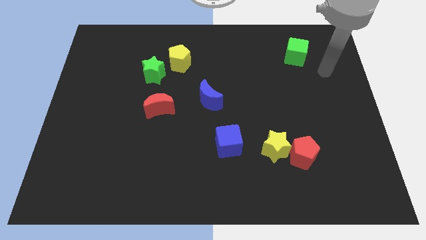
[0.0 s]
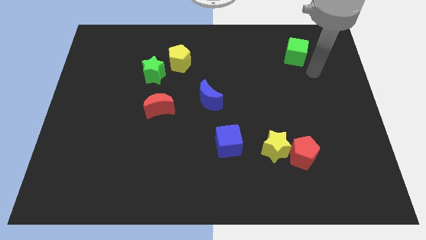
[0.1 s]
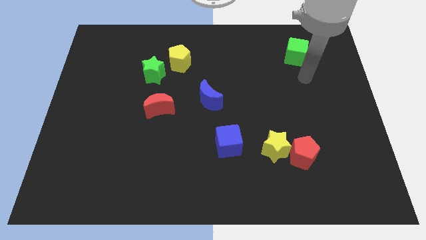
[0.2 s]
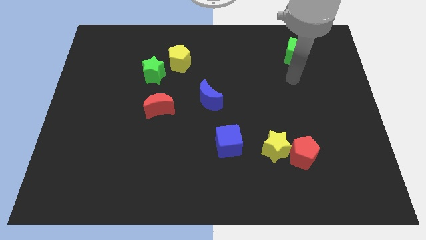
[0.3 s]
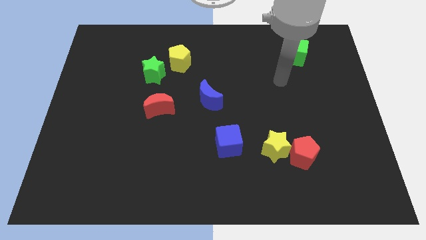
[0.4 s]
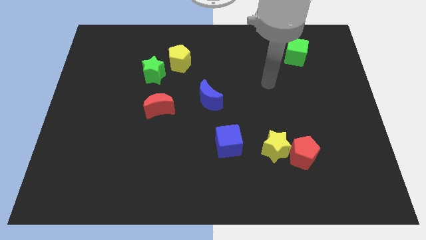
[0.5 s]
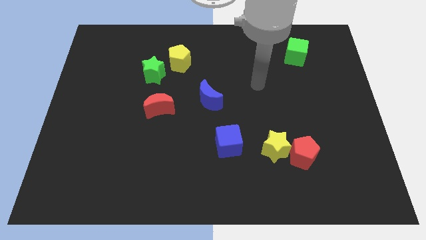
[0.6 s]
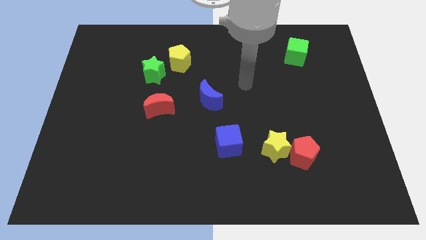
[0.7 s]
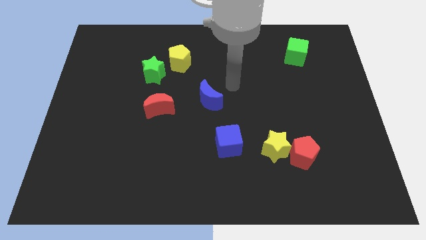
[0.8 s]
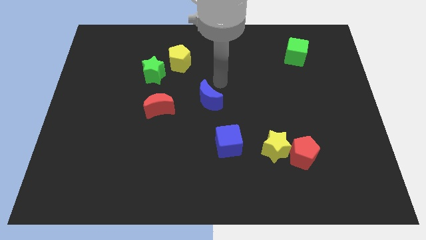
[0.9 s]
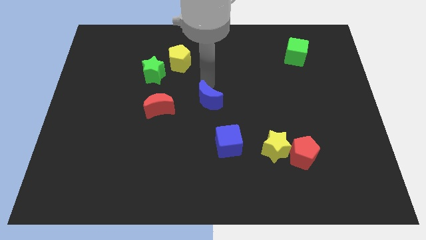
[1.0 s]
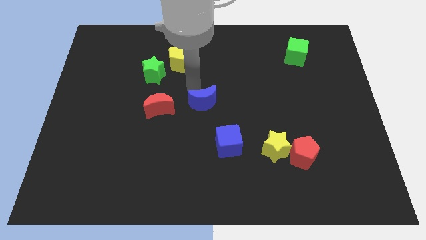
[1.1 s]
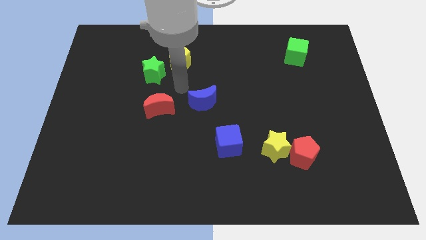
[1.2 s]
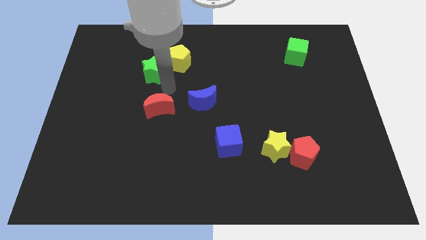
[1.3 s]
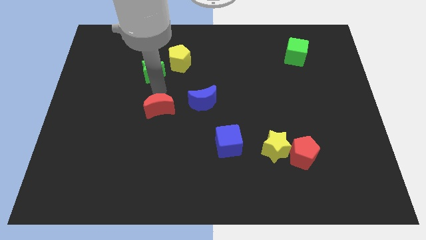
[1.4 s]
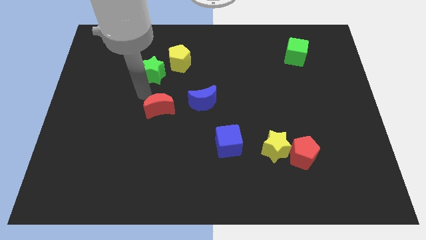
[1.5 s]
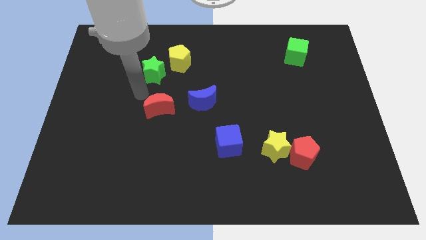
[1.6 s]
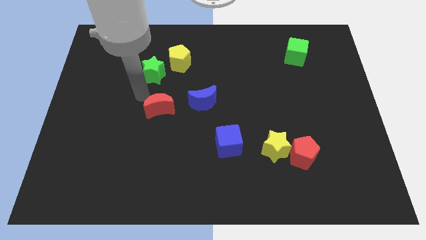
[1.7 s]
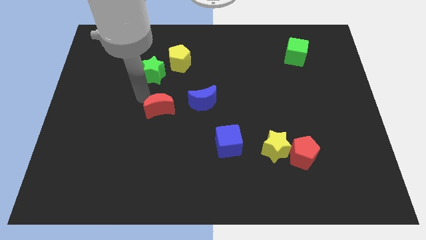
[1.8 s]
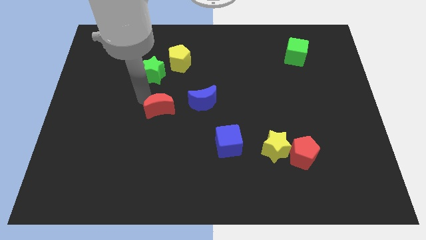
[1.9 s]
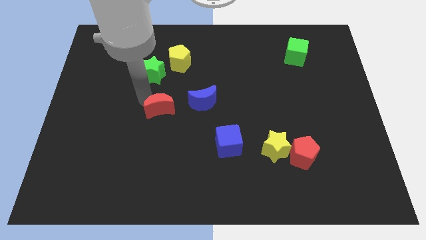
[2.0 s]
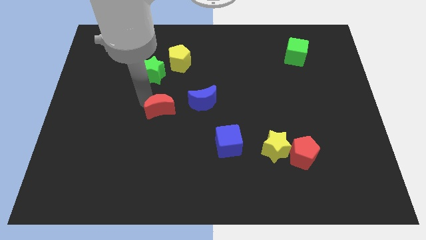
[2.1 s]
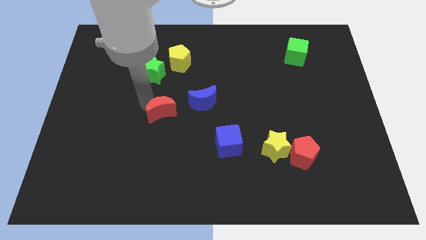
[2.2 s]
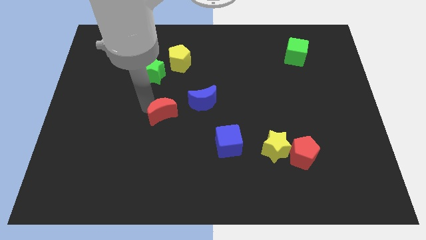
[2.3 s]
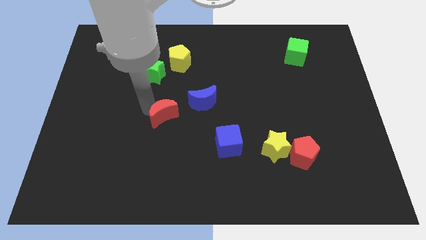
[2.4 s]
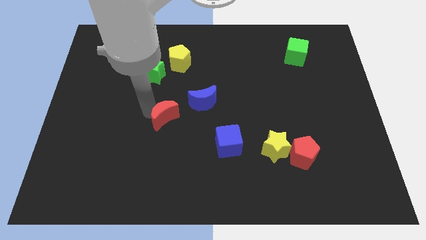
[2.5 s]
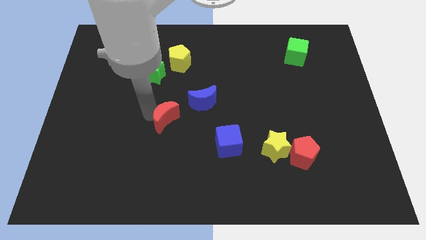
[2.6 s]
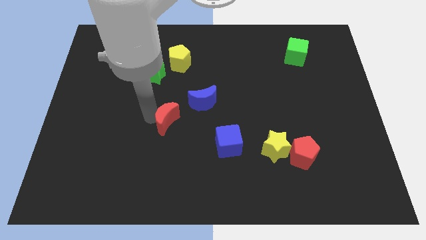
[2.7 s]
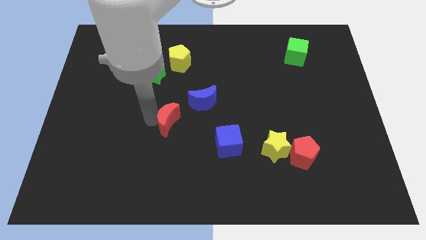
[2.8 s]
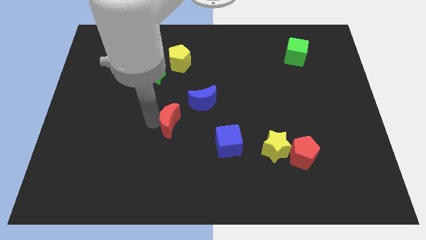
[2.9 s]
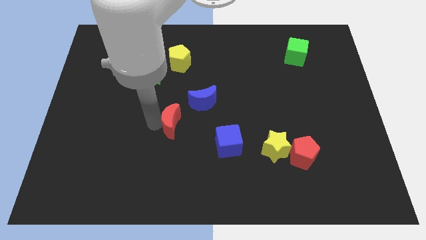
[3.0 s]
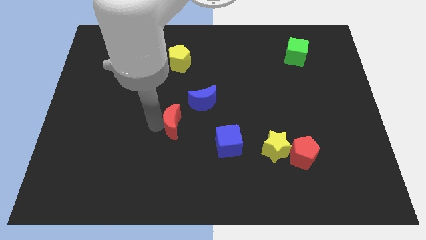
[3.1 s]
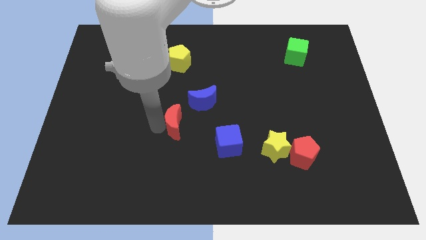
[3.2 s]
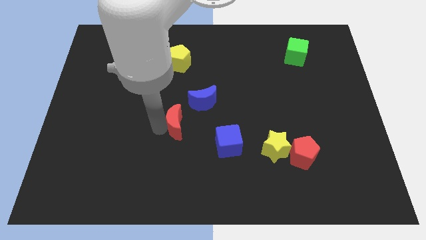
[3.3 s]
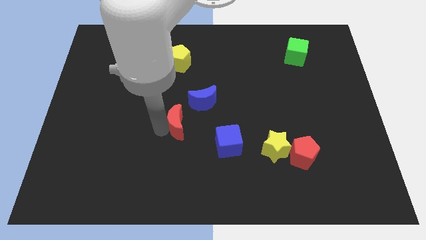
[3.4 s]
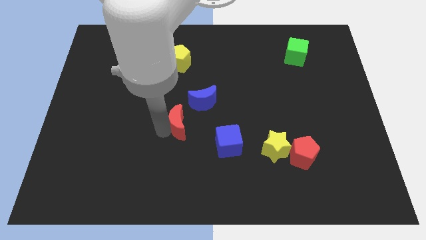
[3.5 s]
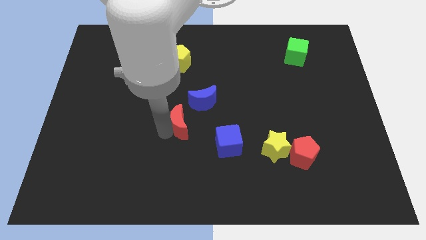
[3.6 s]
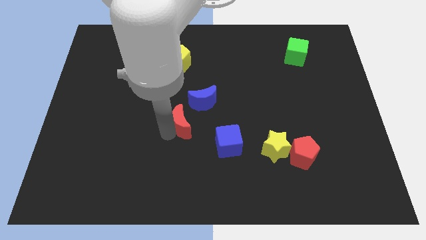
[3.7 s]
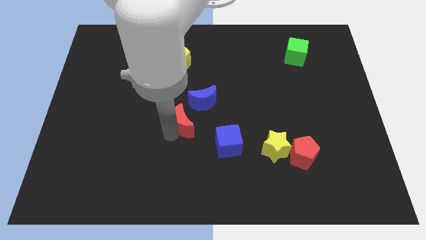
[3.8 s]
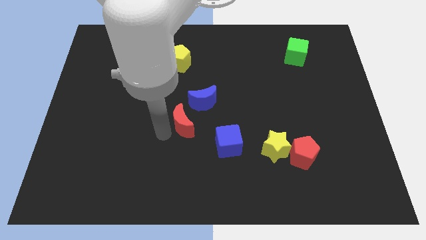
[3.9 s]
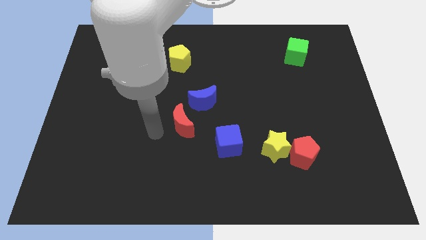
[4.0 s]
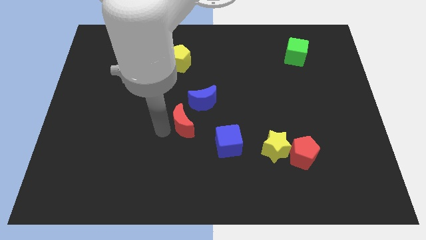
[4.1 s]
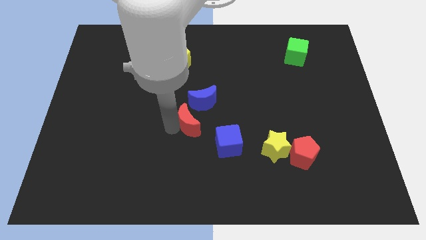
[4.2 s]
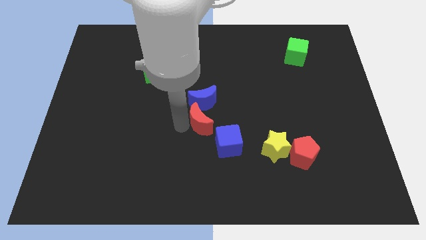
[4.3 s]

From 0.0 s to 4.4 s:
slightly push the red moon right

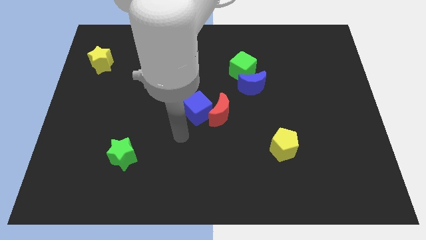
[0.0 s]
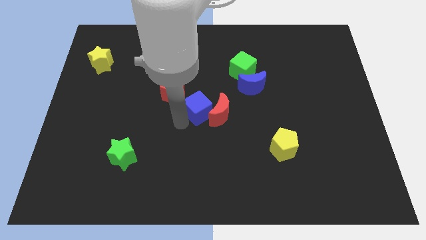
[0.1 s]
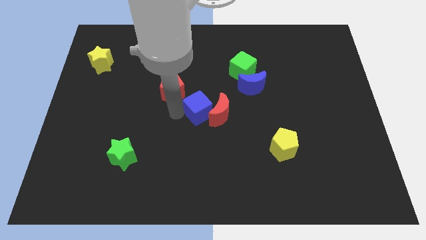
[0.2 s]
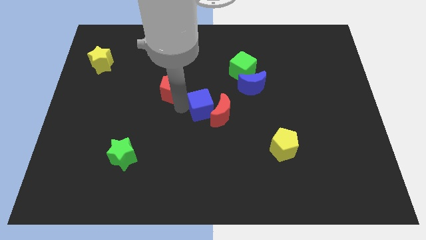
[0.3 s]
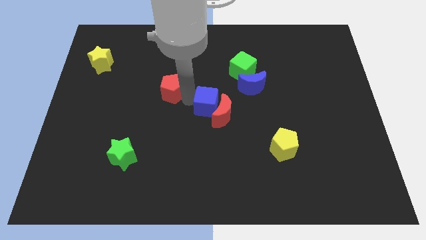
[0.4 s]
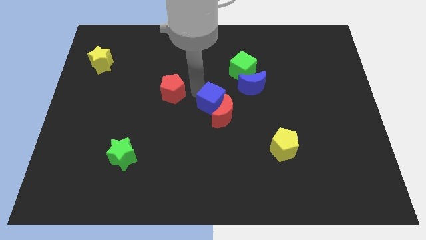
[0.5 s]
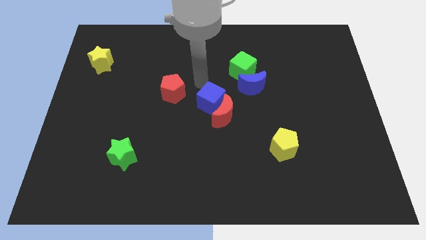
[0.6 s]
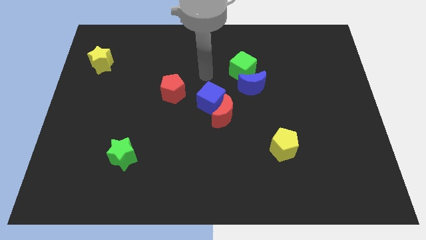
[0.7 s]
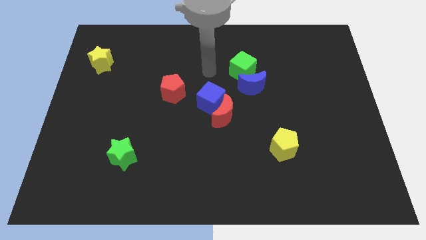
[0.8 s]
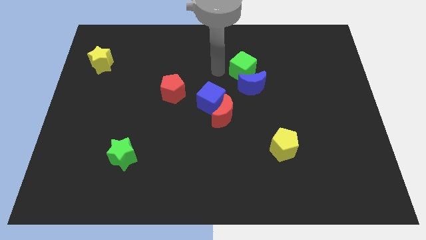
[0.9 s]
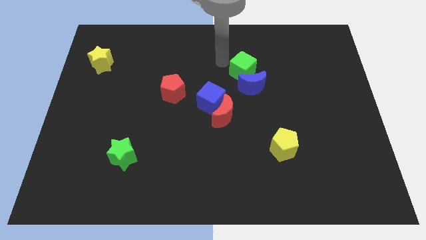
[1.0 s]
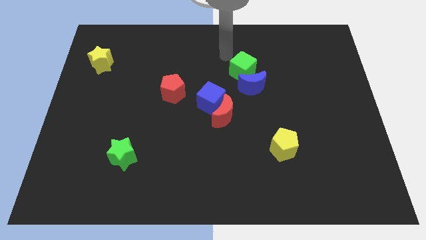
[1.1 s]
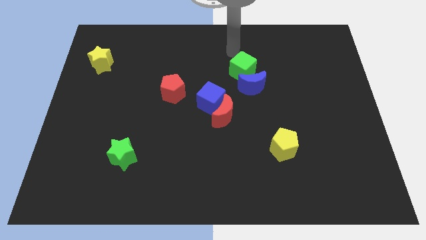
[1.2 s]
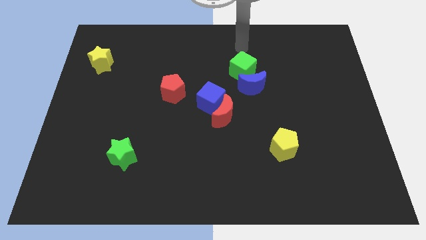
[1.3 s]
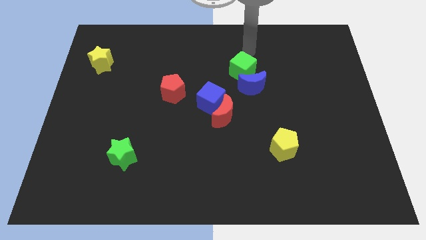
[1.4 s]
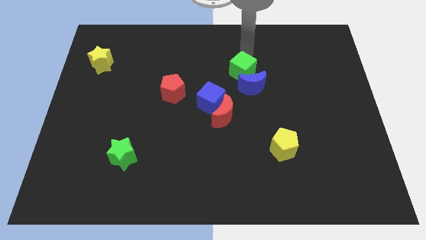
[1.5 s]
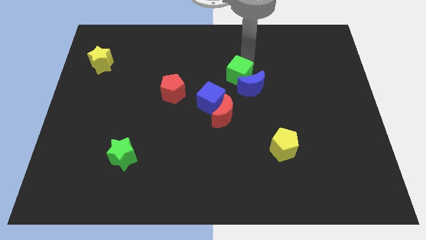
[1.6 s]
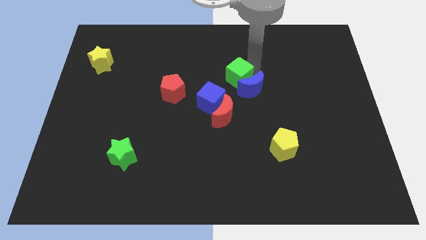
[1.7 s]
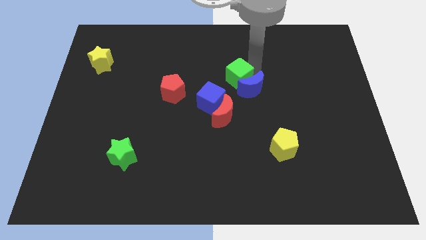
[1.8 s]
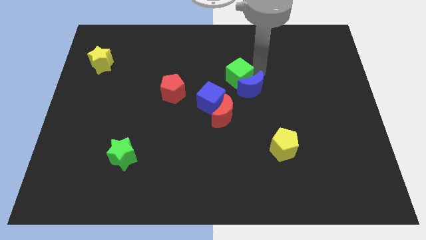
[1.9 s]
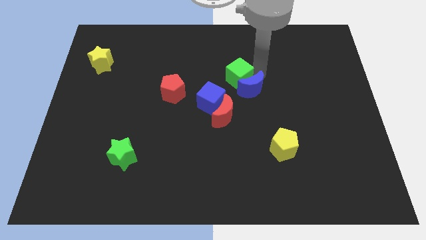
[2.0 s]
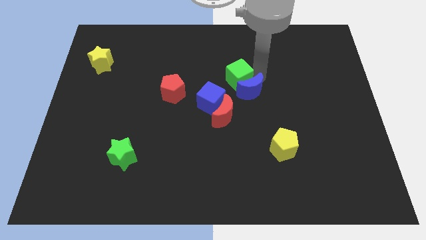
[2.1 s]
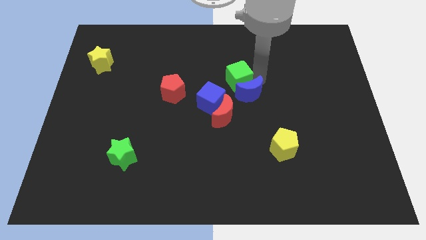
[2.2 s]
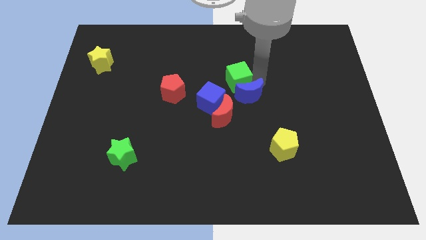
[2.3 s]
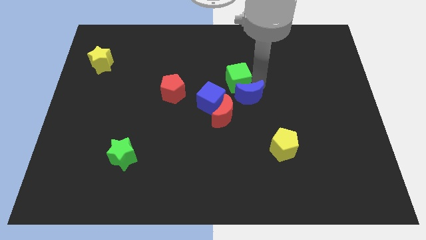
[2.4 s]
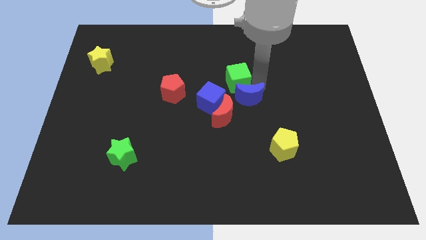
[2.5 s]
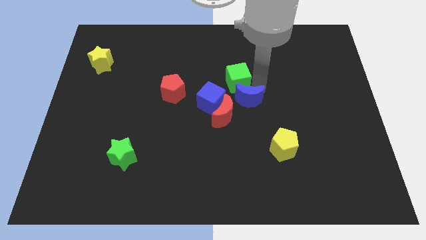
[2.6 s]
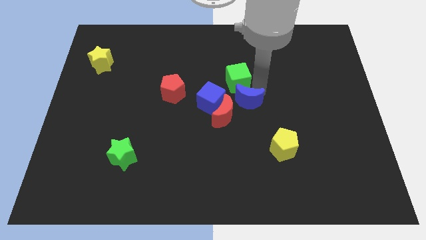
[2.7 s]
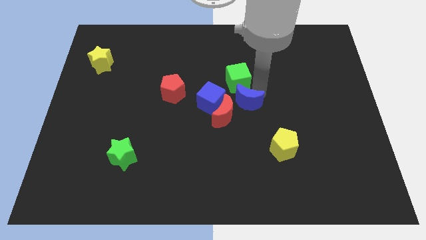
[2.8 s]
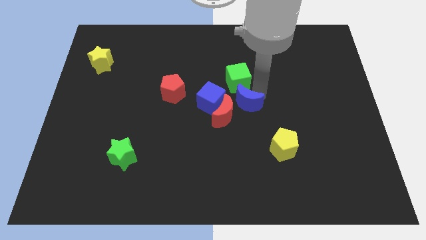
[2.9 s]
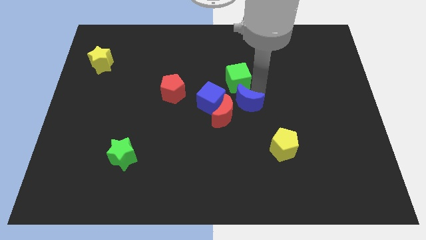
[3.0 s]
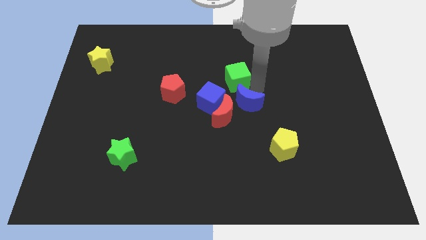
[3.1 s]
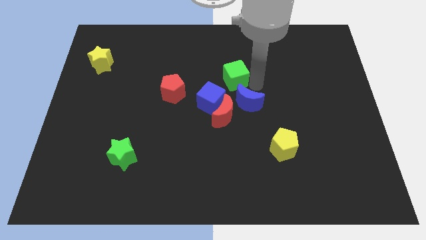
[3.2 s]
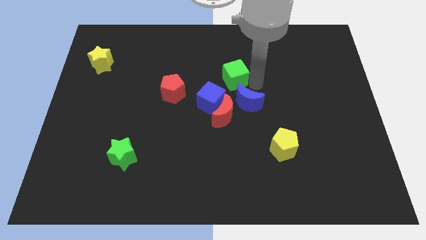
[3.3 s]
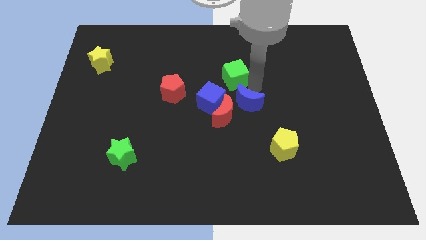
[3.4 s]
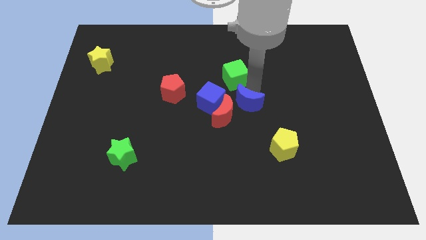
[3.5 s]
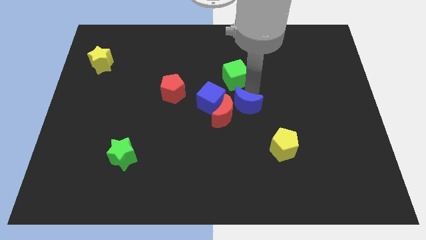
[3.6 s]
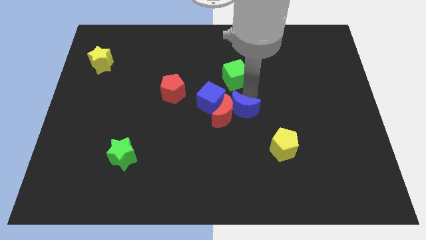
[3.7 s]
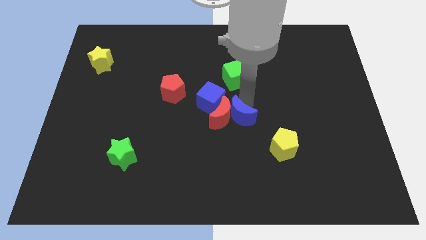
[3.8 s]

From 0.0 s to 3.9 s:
slightly push the blue moon downwards and left diagonally
